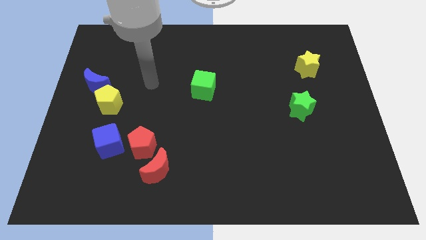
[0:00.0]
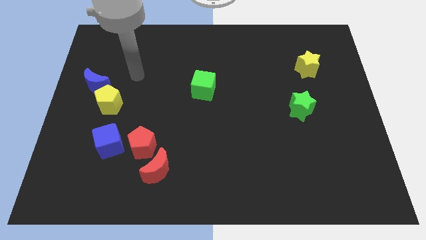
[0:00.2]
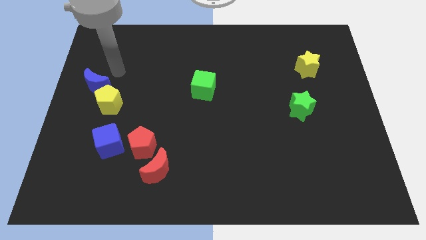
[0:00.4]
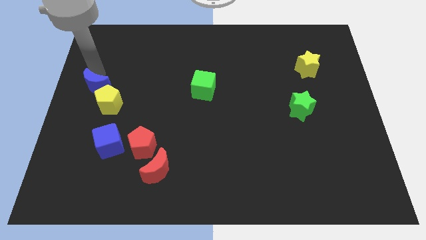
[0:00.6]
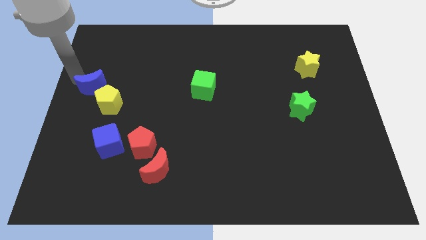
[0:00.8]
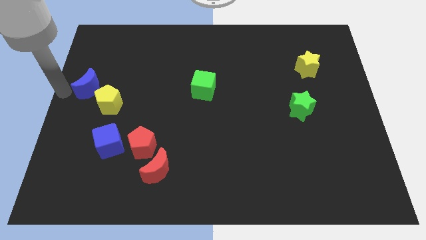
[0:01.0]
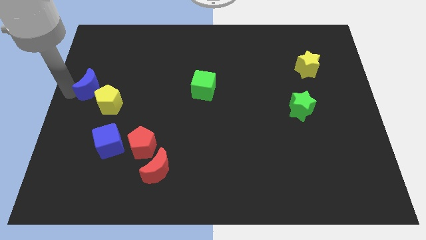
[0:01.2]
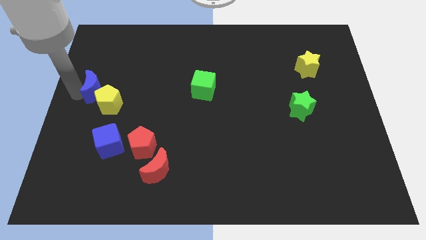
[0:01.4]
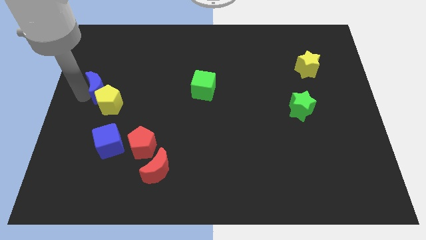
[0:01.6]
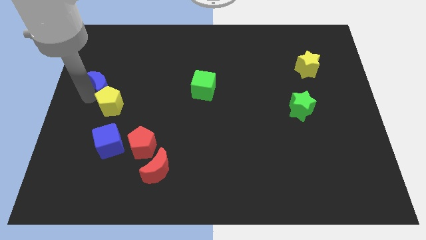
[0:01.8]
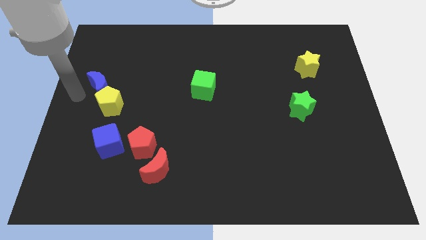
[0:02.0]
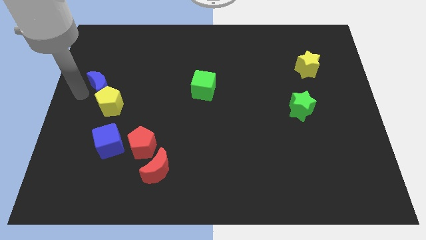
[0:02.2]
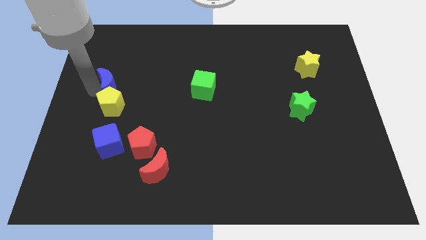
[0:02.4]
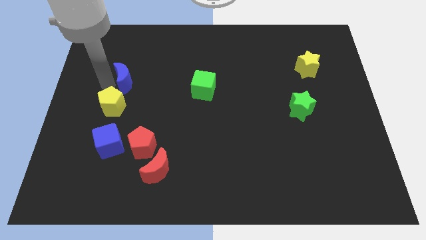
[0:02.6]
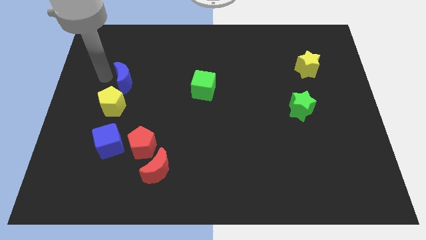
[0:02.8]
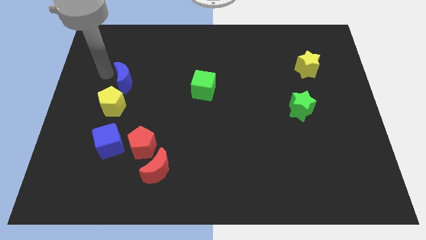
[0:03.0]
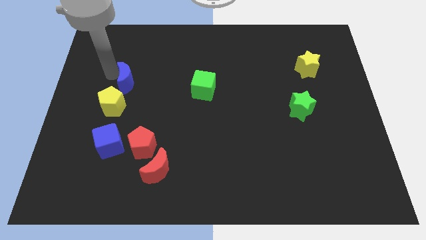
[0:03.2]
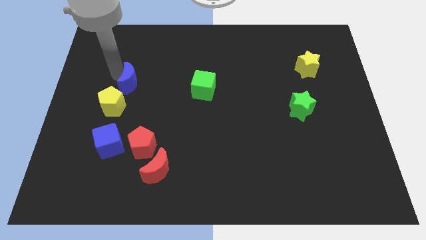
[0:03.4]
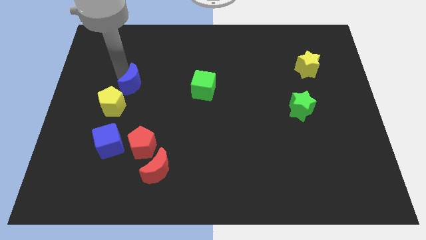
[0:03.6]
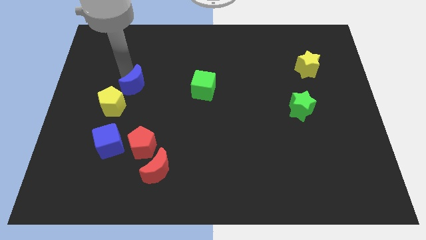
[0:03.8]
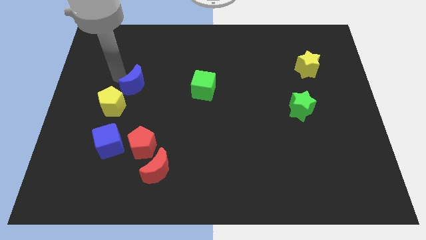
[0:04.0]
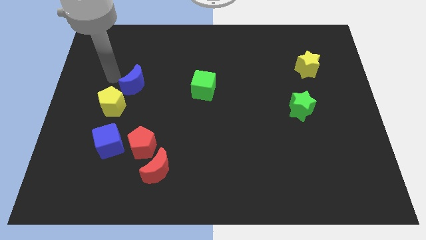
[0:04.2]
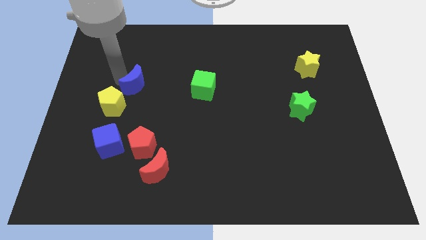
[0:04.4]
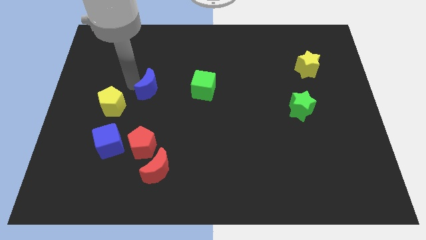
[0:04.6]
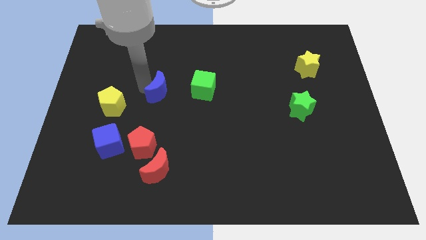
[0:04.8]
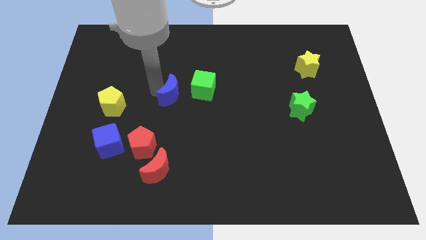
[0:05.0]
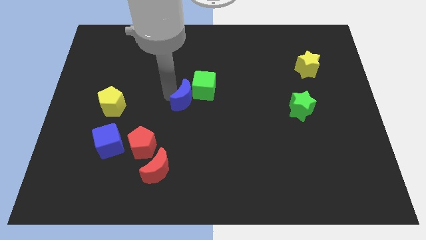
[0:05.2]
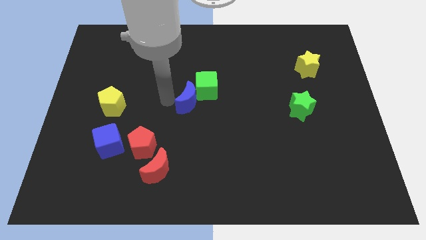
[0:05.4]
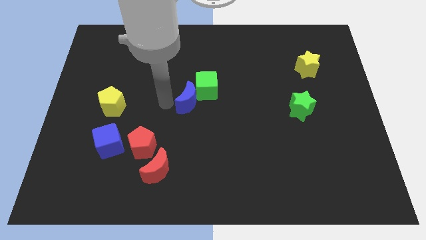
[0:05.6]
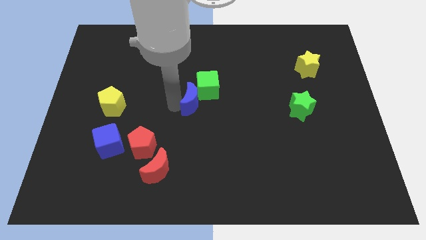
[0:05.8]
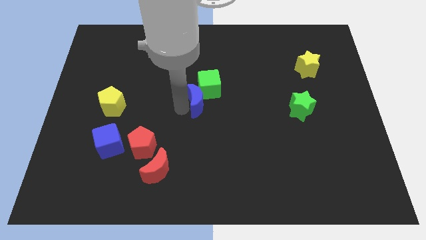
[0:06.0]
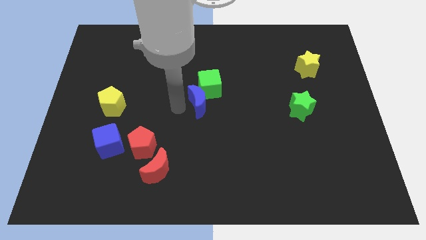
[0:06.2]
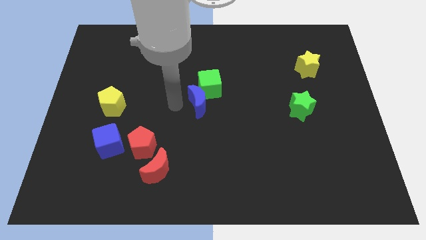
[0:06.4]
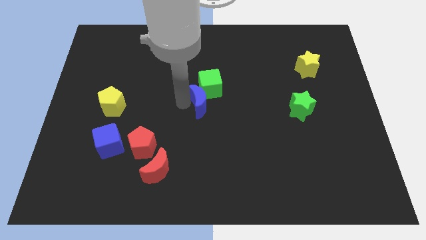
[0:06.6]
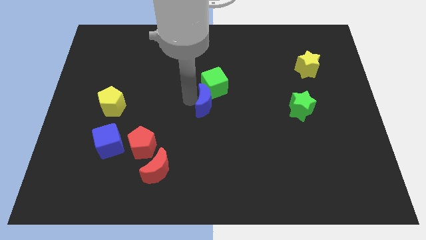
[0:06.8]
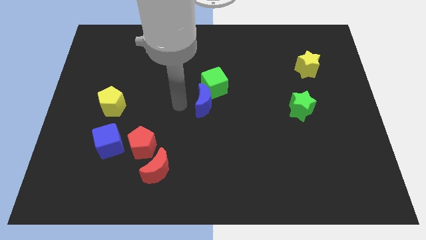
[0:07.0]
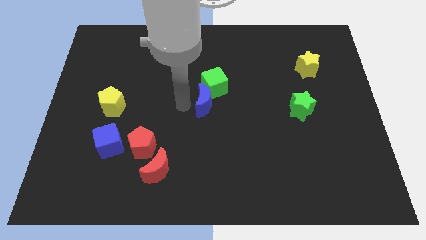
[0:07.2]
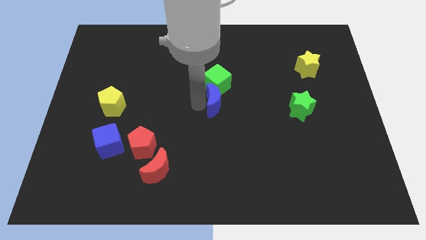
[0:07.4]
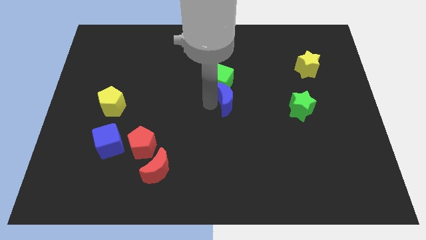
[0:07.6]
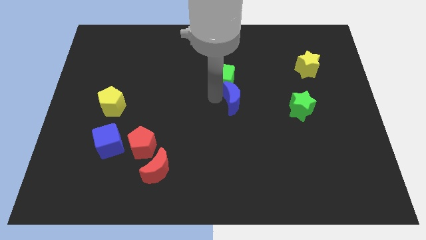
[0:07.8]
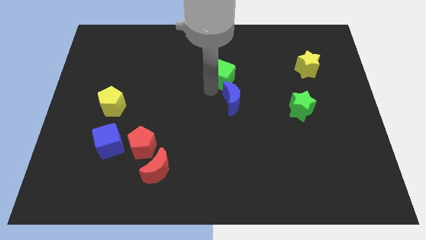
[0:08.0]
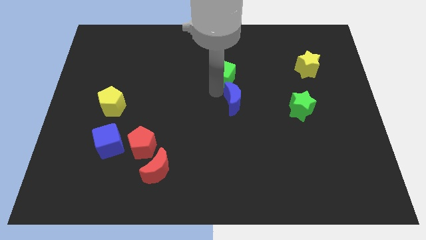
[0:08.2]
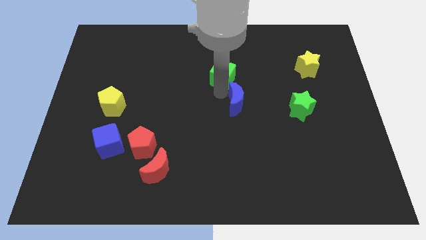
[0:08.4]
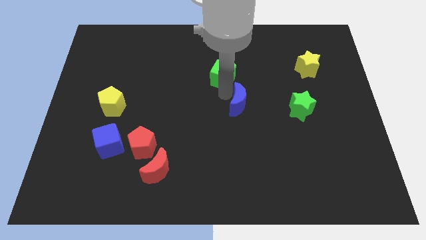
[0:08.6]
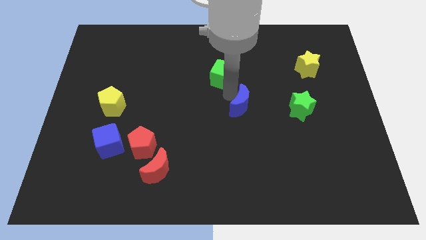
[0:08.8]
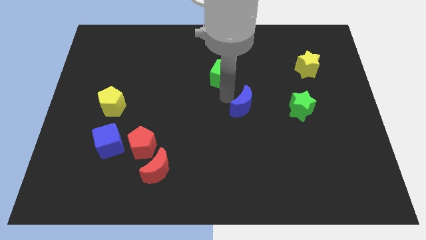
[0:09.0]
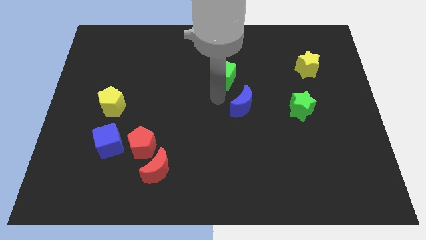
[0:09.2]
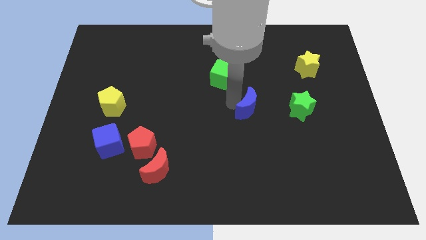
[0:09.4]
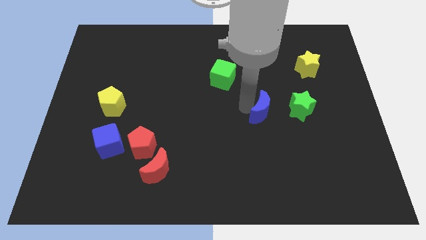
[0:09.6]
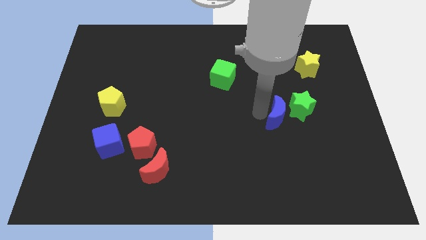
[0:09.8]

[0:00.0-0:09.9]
slide the blue moon next to the green star

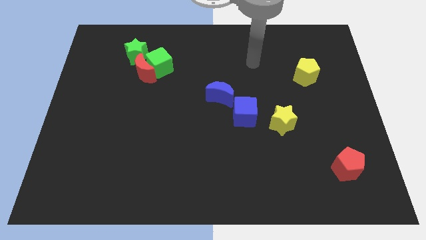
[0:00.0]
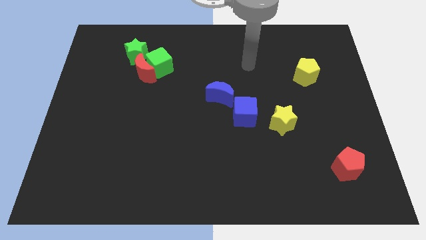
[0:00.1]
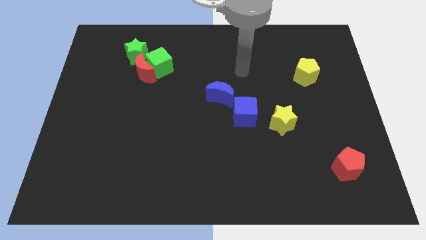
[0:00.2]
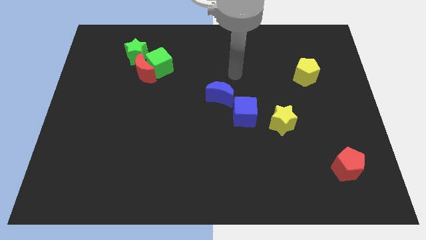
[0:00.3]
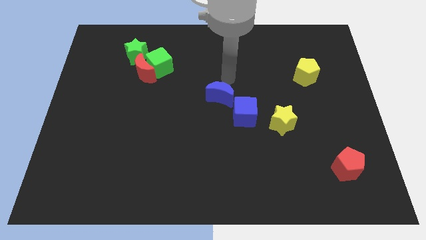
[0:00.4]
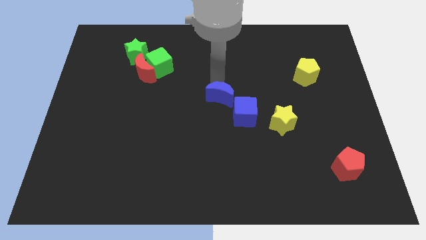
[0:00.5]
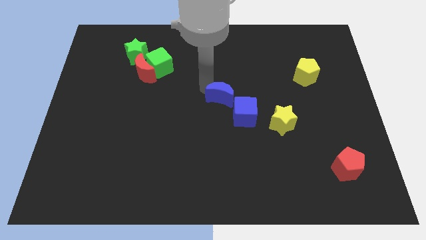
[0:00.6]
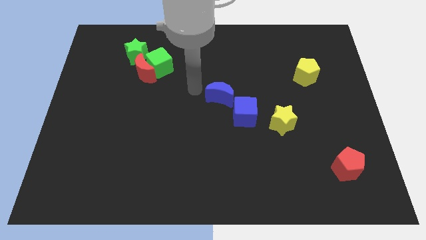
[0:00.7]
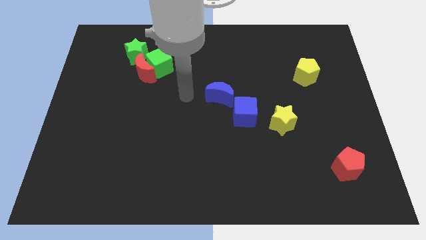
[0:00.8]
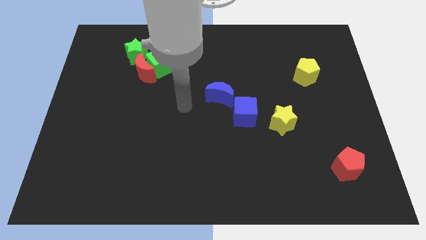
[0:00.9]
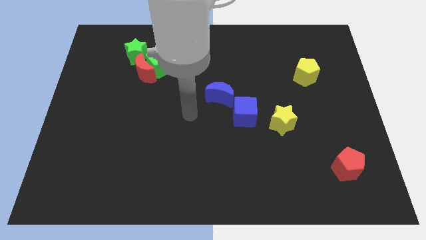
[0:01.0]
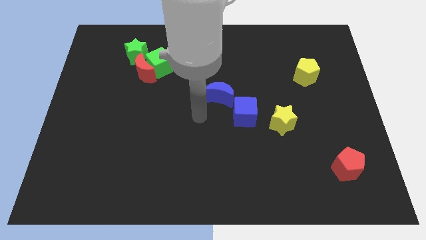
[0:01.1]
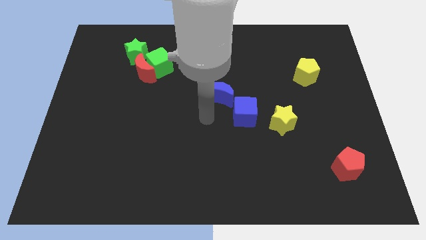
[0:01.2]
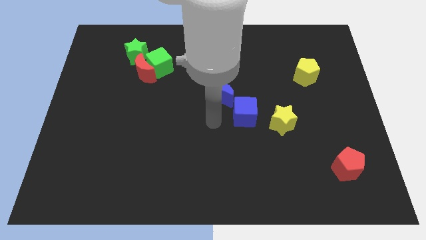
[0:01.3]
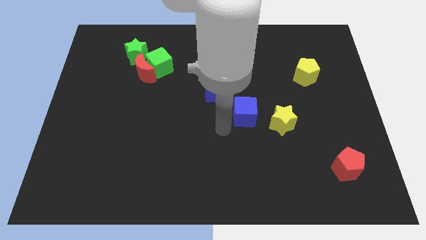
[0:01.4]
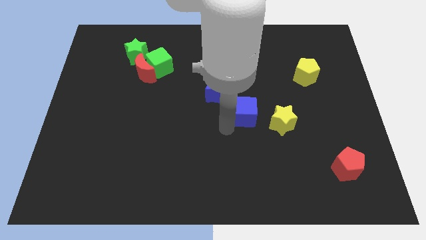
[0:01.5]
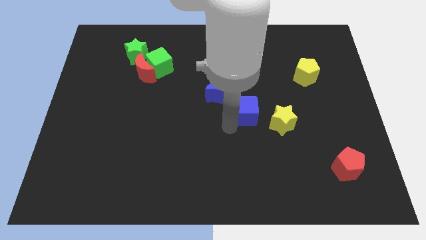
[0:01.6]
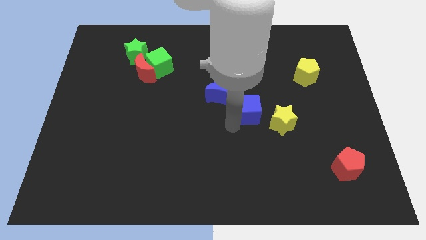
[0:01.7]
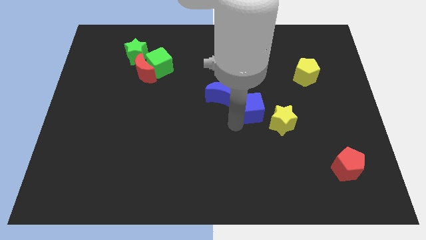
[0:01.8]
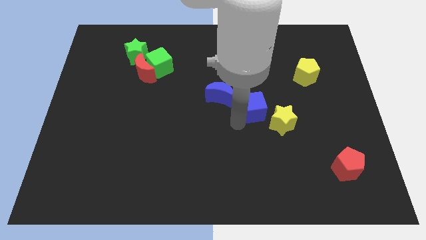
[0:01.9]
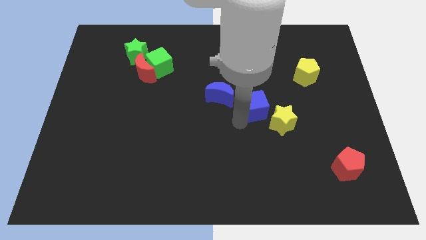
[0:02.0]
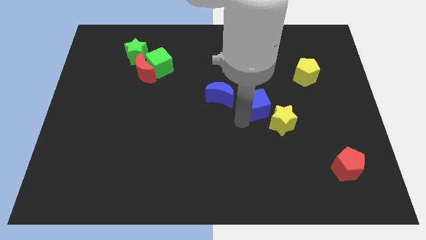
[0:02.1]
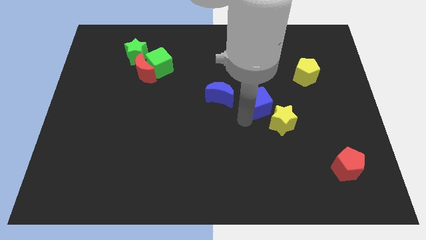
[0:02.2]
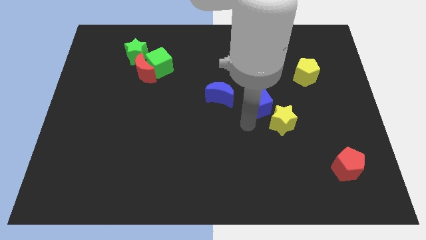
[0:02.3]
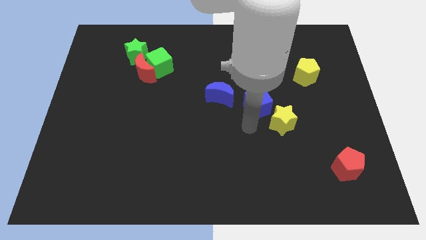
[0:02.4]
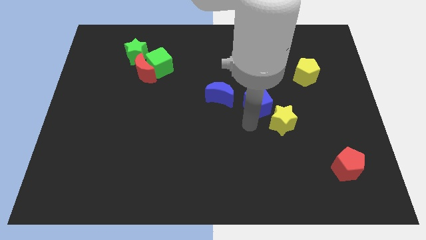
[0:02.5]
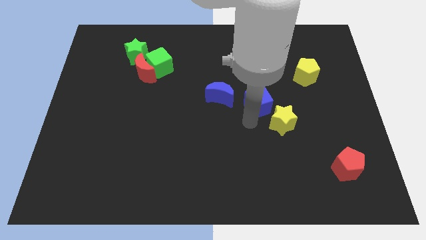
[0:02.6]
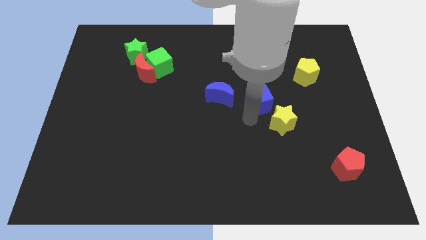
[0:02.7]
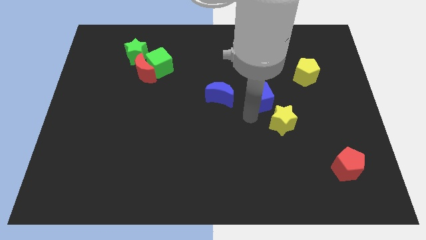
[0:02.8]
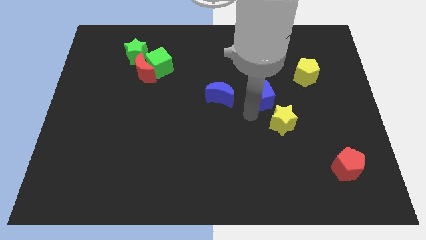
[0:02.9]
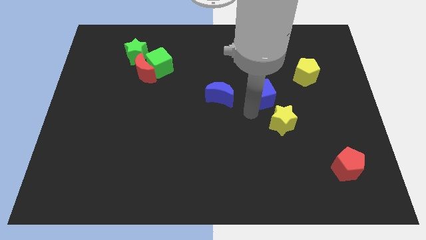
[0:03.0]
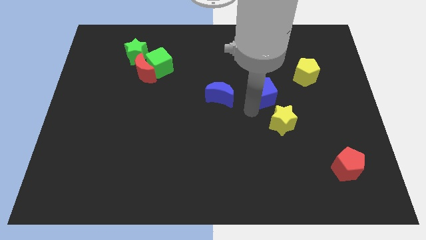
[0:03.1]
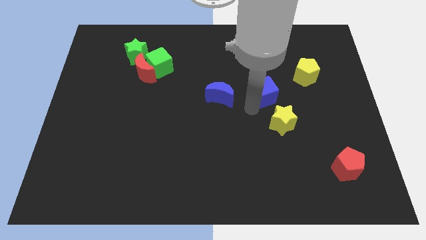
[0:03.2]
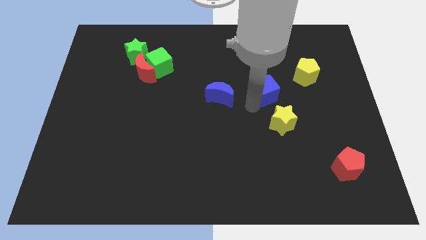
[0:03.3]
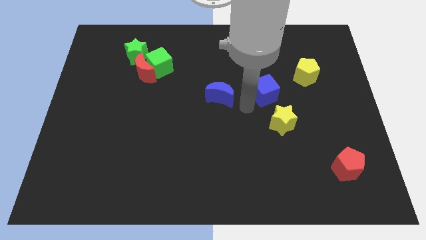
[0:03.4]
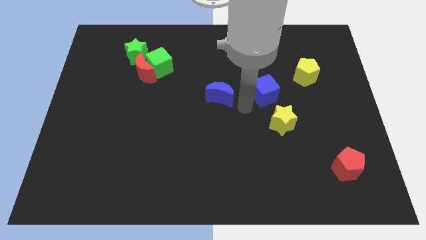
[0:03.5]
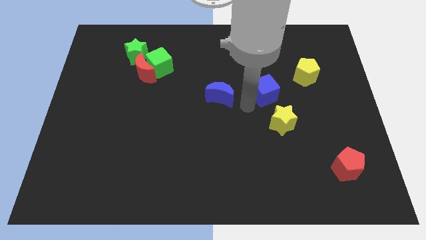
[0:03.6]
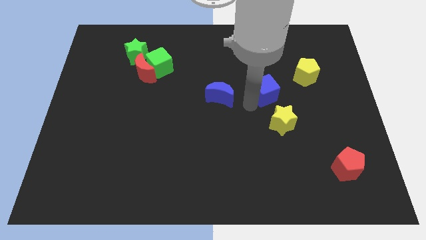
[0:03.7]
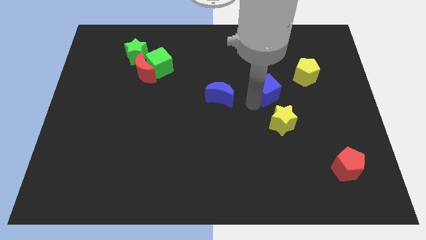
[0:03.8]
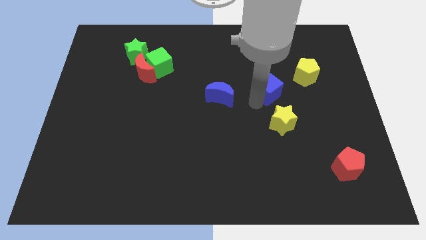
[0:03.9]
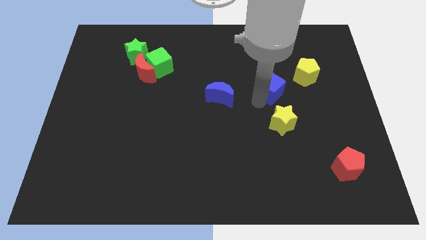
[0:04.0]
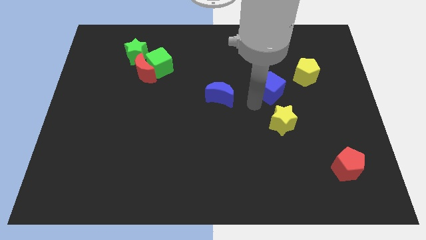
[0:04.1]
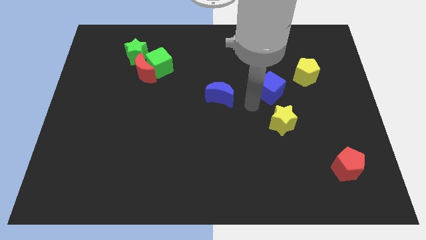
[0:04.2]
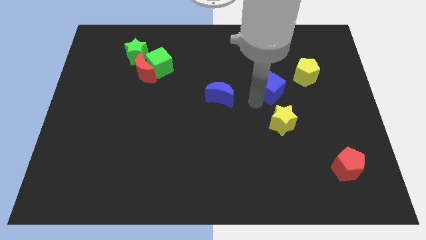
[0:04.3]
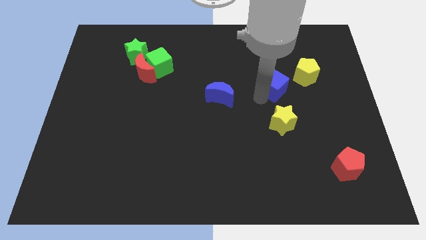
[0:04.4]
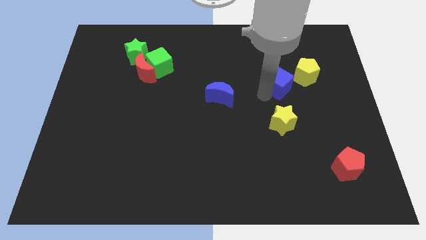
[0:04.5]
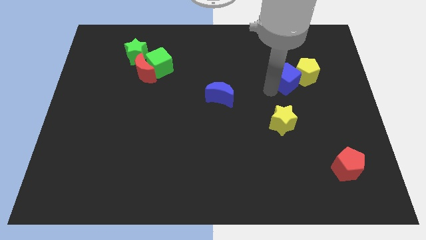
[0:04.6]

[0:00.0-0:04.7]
push the blue cube towards the yellow pentagon
